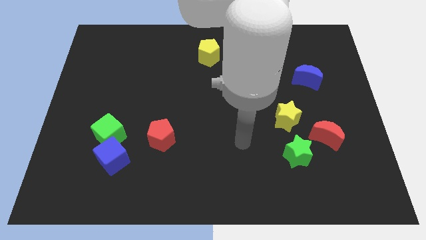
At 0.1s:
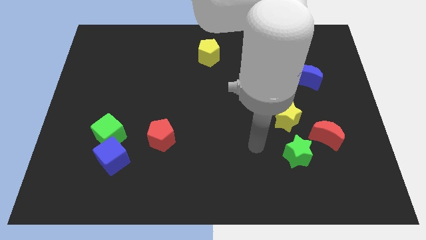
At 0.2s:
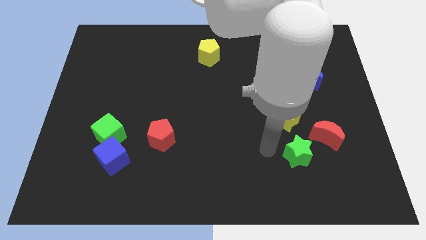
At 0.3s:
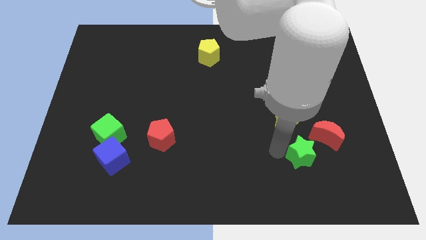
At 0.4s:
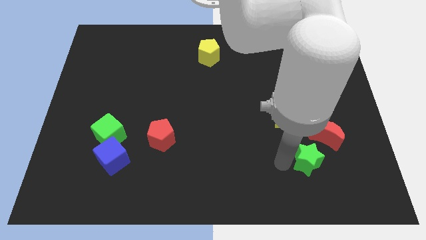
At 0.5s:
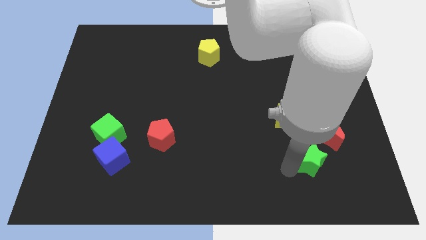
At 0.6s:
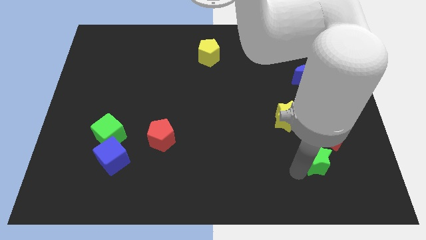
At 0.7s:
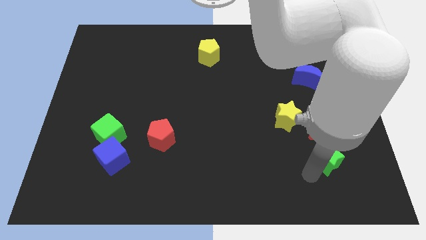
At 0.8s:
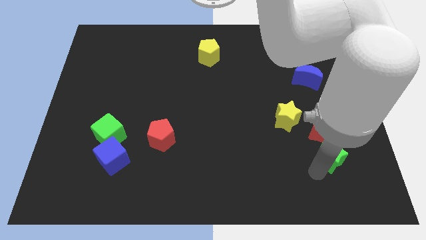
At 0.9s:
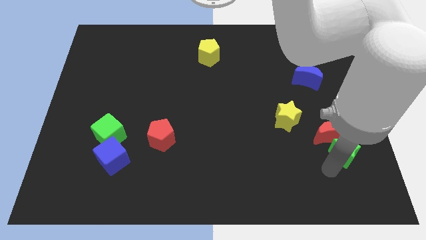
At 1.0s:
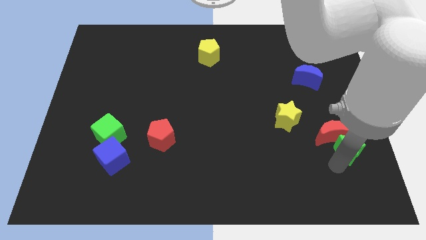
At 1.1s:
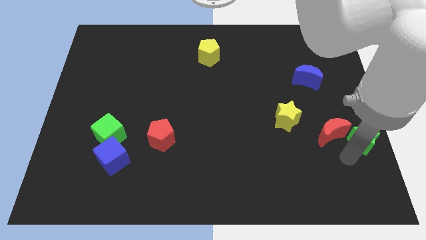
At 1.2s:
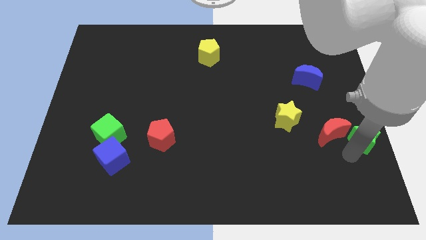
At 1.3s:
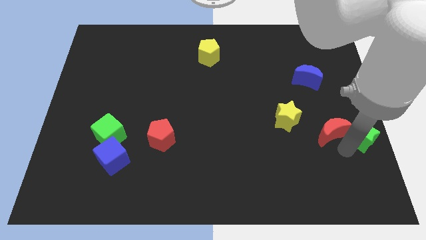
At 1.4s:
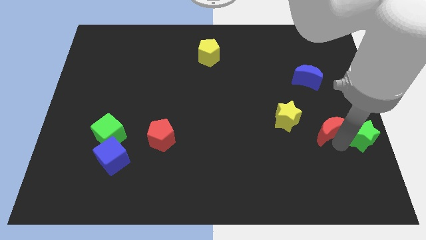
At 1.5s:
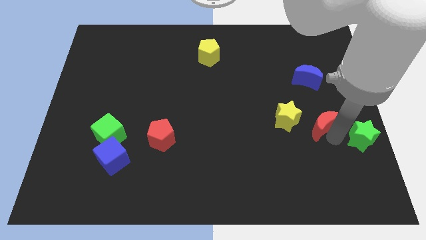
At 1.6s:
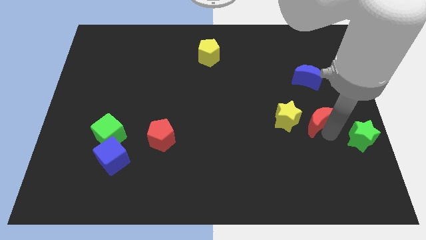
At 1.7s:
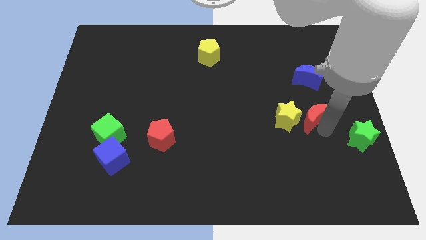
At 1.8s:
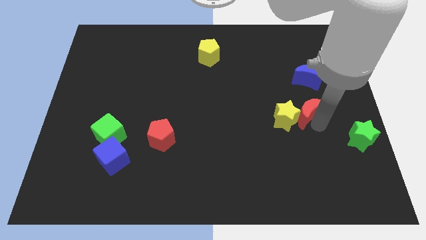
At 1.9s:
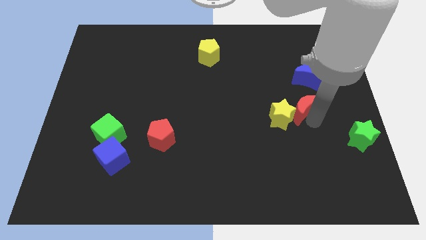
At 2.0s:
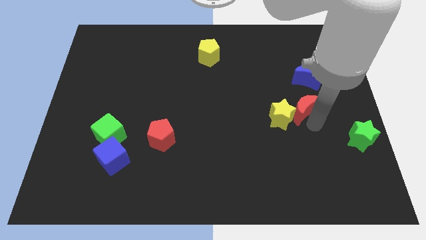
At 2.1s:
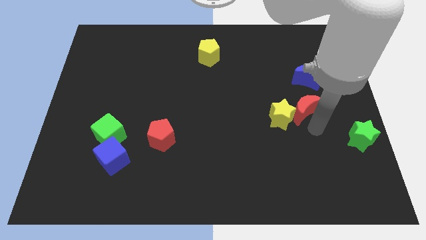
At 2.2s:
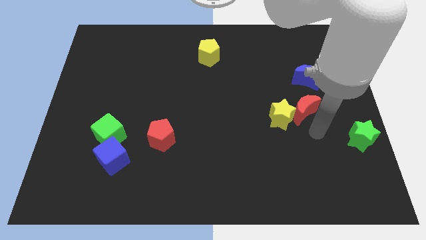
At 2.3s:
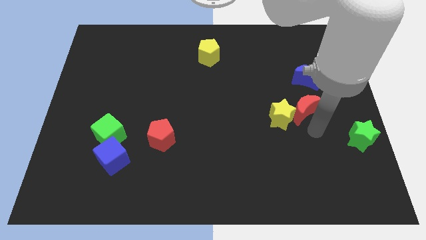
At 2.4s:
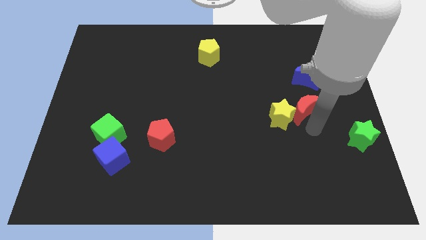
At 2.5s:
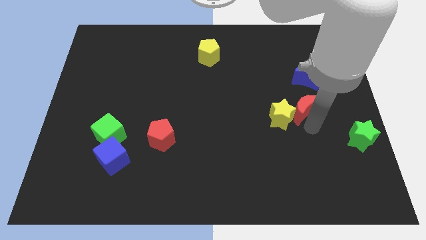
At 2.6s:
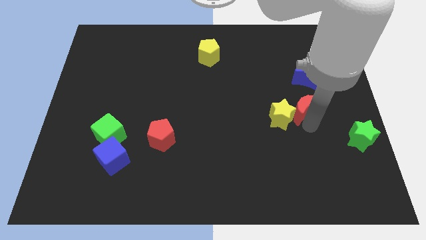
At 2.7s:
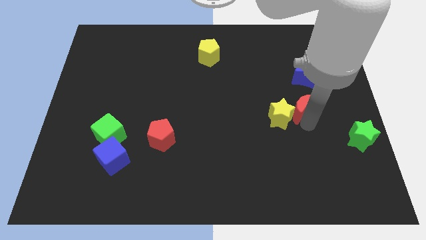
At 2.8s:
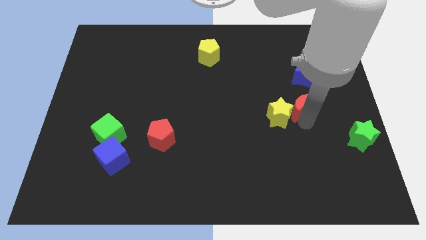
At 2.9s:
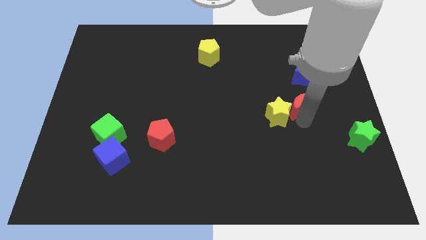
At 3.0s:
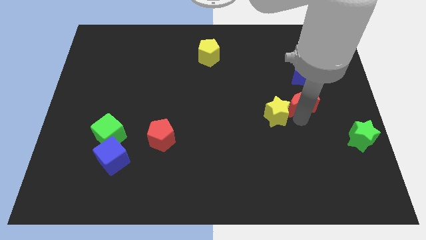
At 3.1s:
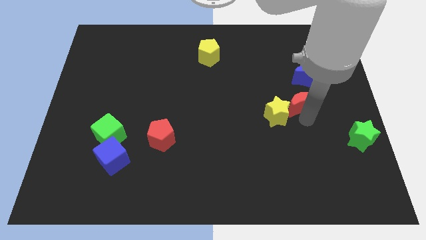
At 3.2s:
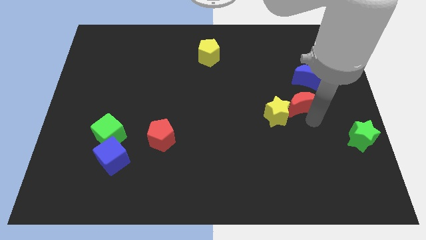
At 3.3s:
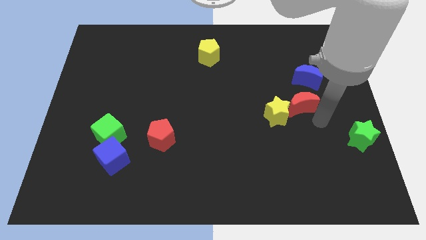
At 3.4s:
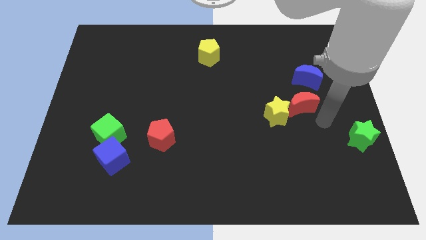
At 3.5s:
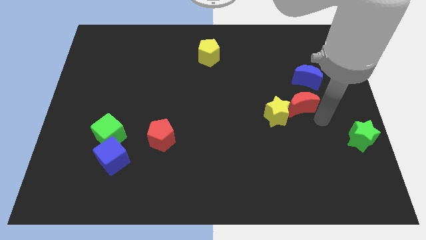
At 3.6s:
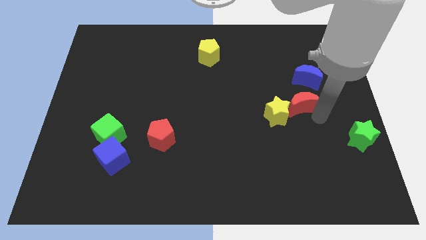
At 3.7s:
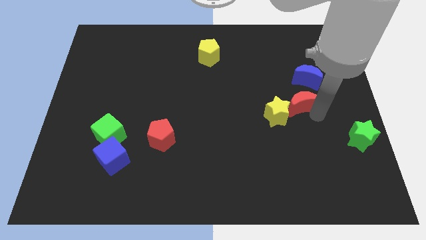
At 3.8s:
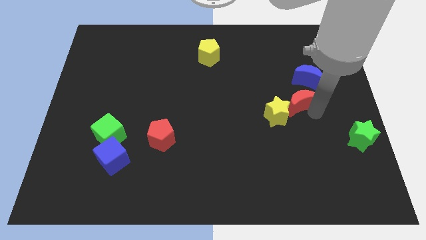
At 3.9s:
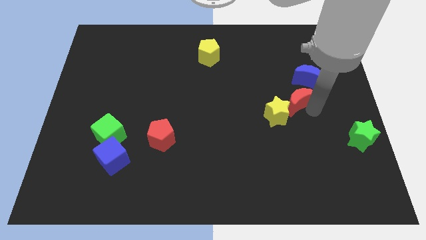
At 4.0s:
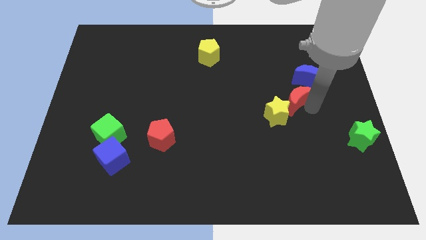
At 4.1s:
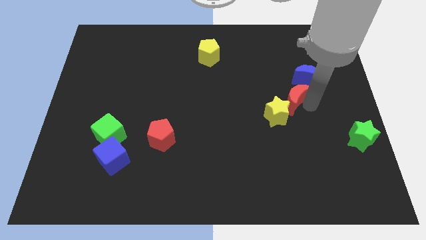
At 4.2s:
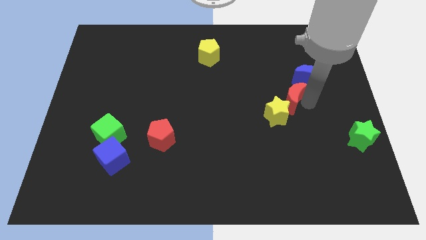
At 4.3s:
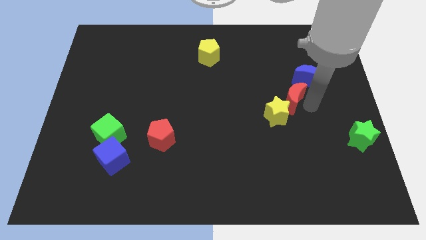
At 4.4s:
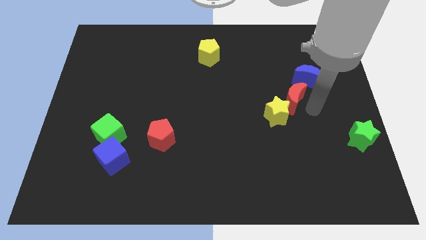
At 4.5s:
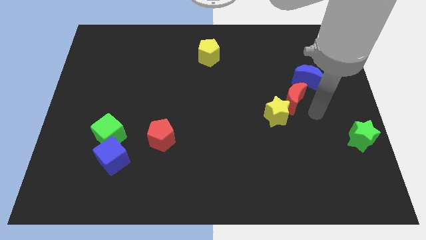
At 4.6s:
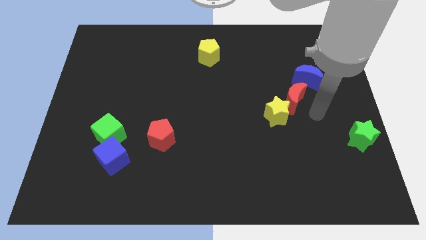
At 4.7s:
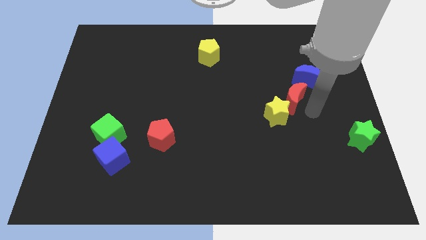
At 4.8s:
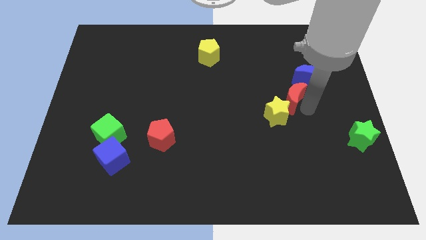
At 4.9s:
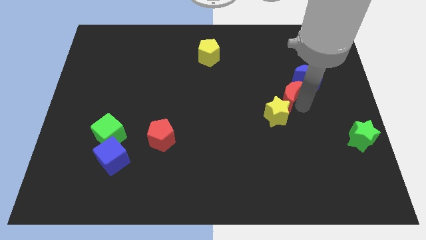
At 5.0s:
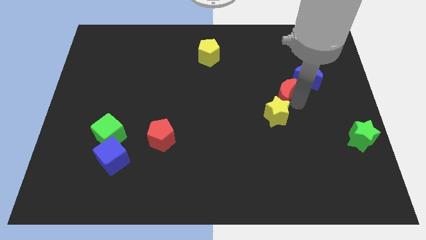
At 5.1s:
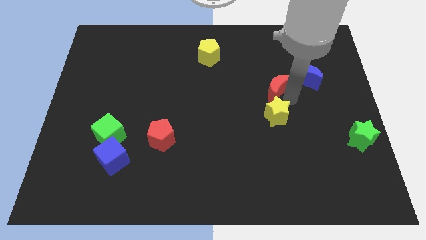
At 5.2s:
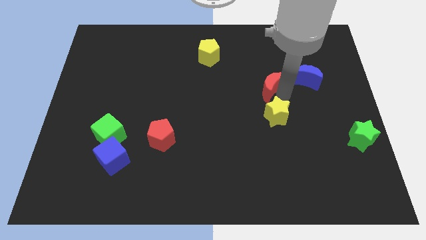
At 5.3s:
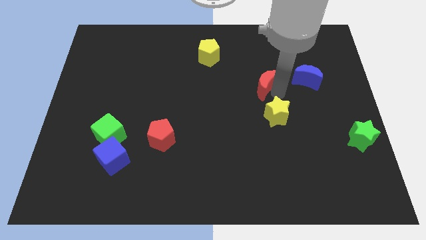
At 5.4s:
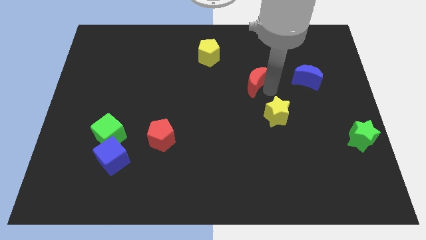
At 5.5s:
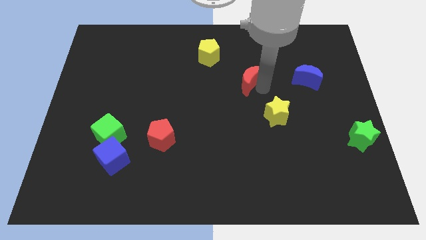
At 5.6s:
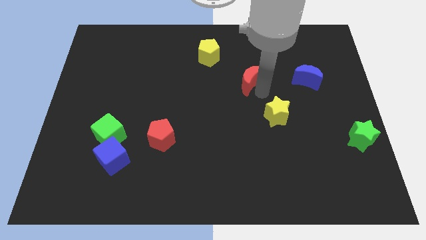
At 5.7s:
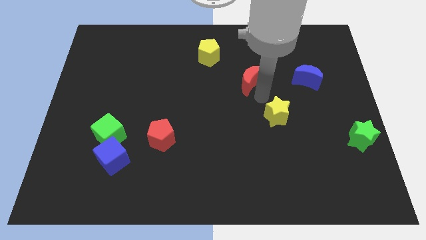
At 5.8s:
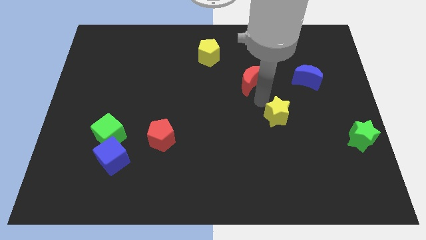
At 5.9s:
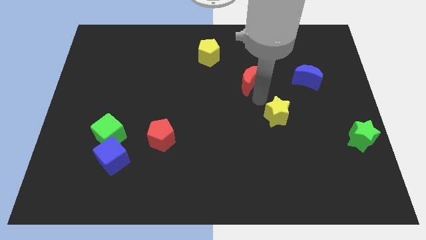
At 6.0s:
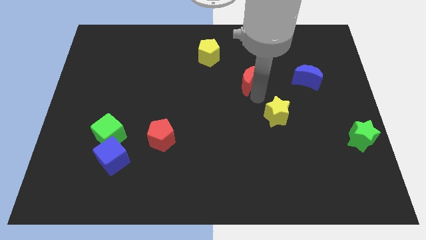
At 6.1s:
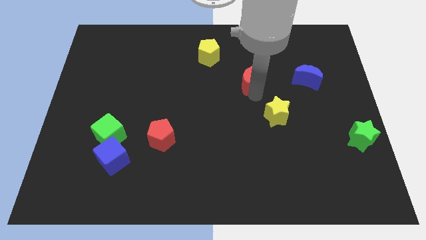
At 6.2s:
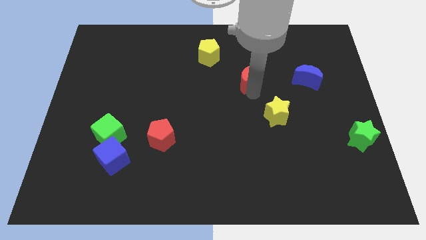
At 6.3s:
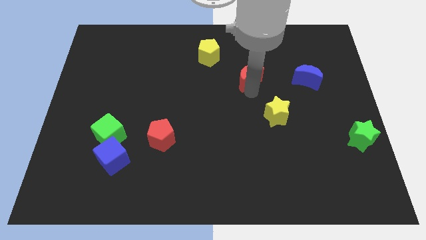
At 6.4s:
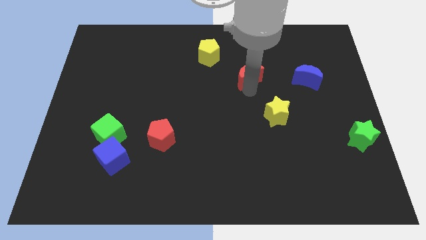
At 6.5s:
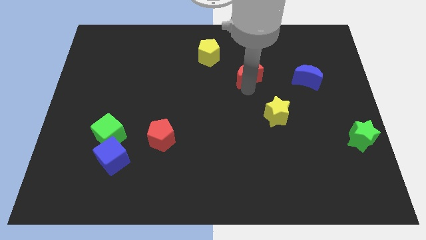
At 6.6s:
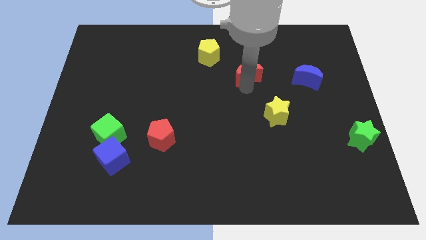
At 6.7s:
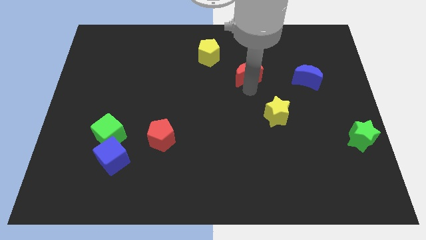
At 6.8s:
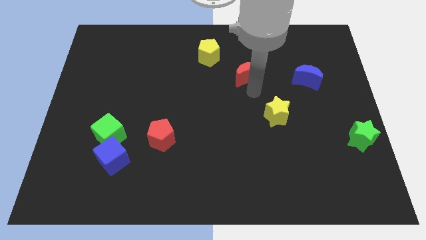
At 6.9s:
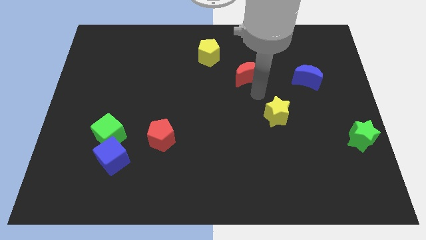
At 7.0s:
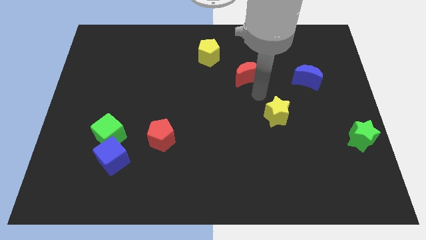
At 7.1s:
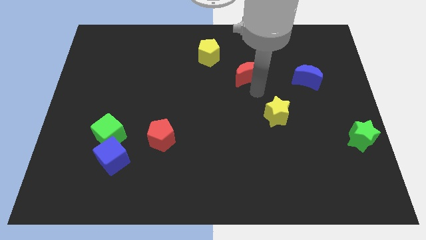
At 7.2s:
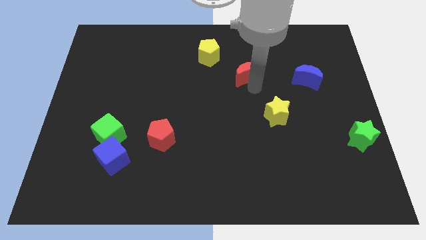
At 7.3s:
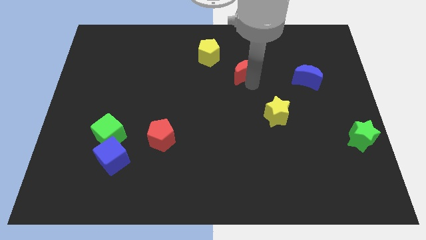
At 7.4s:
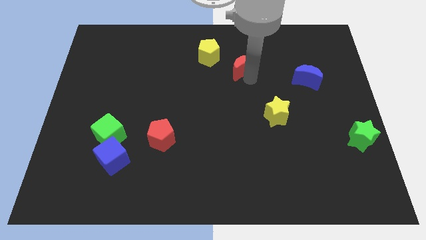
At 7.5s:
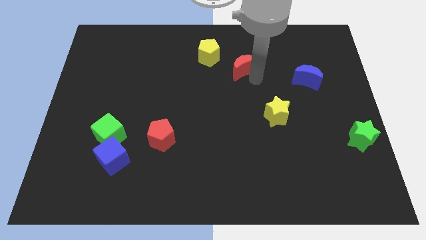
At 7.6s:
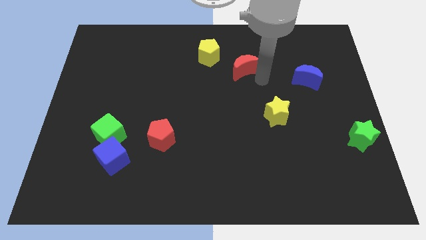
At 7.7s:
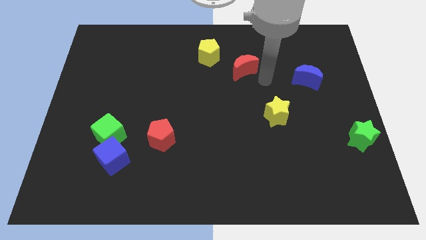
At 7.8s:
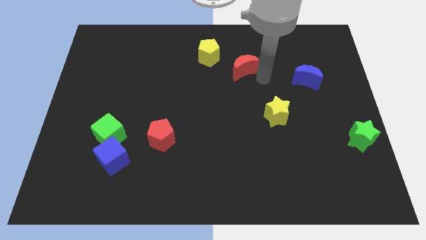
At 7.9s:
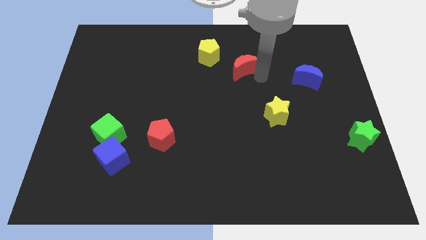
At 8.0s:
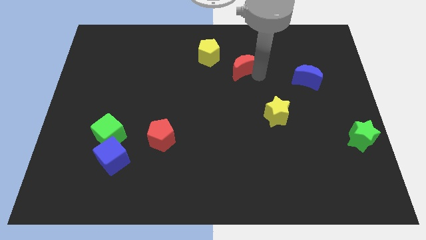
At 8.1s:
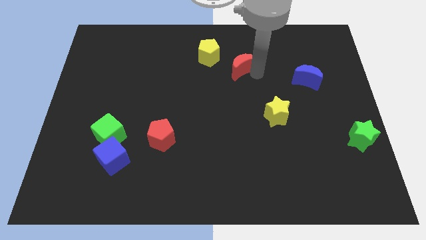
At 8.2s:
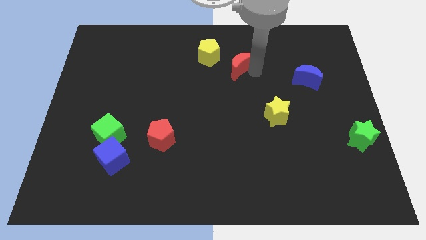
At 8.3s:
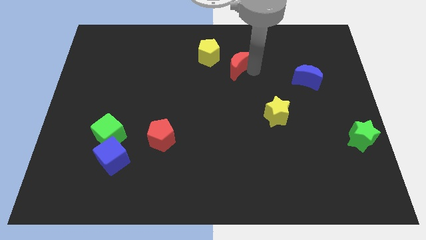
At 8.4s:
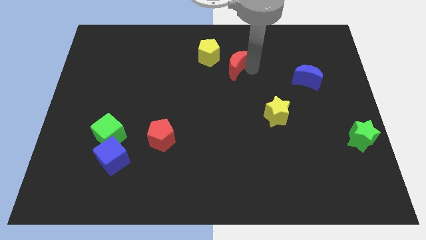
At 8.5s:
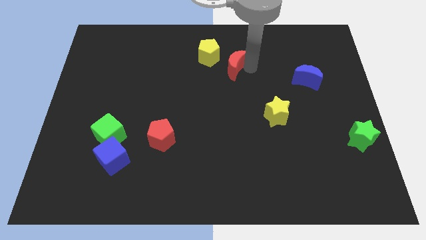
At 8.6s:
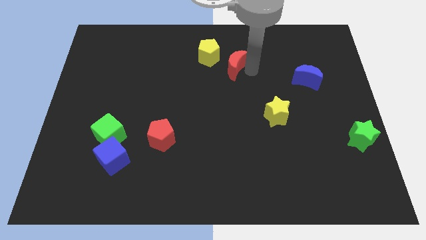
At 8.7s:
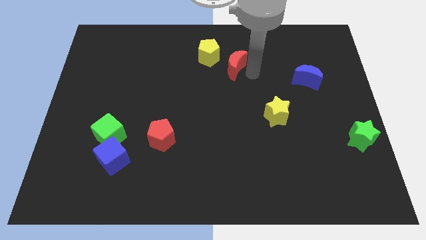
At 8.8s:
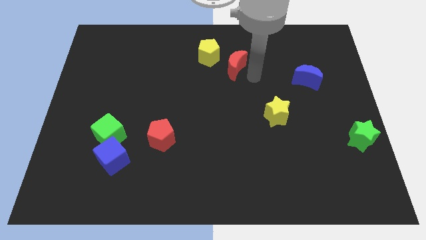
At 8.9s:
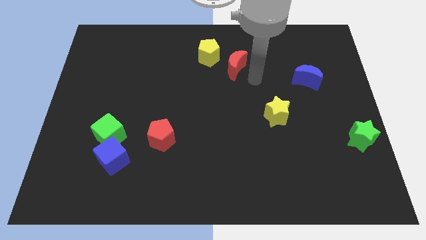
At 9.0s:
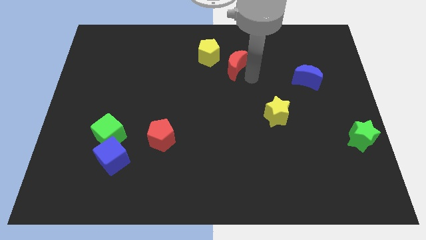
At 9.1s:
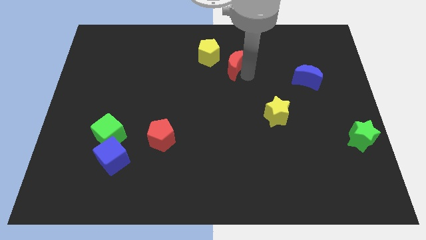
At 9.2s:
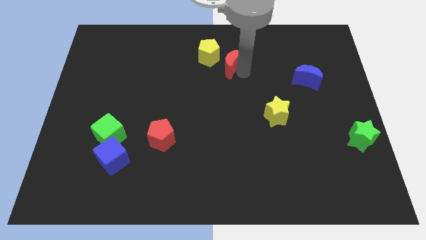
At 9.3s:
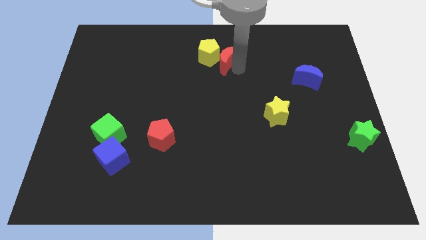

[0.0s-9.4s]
push the red moon towards the yellow pentagon
